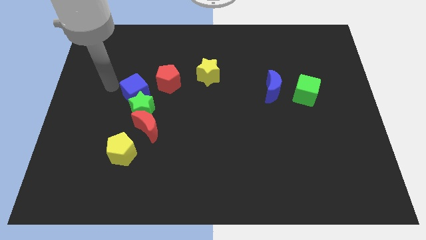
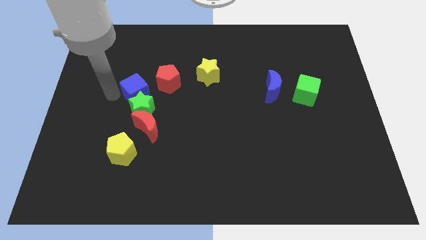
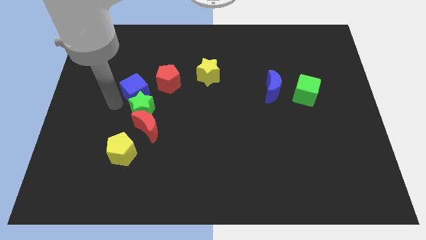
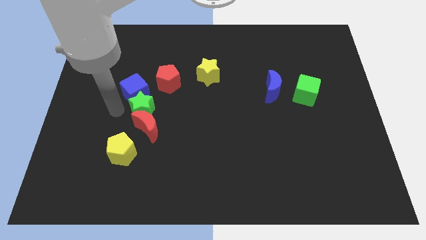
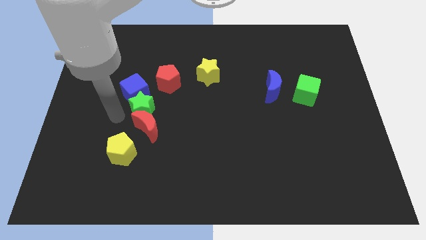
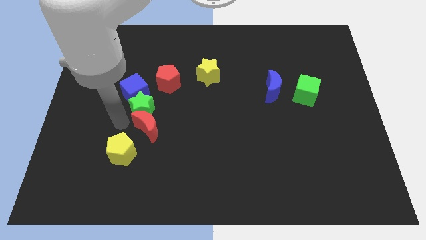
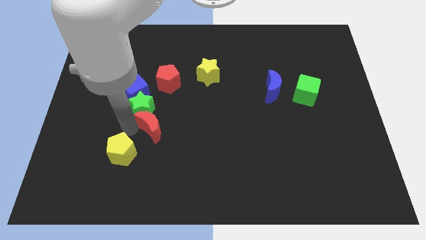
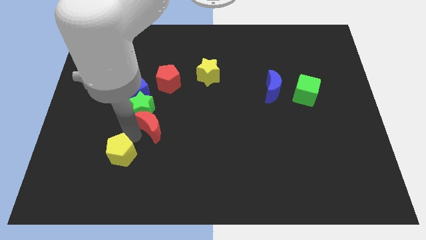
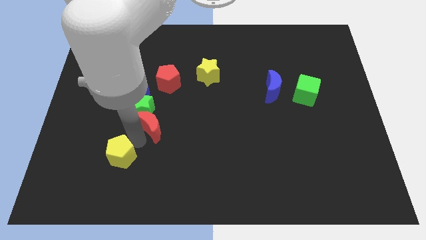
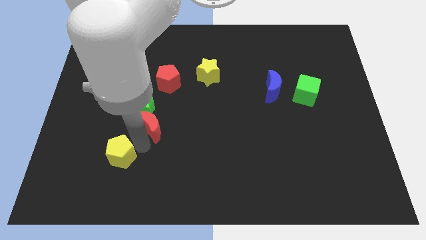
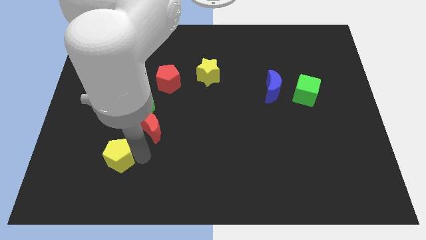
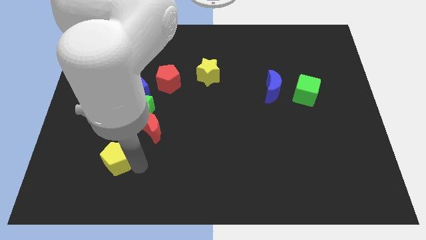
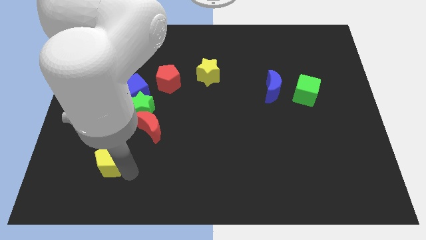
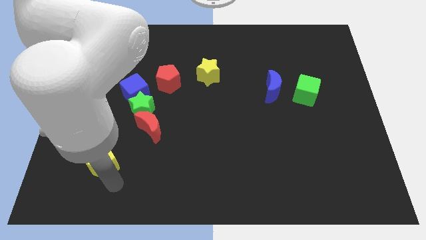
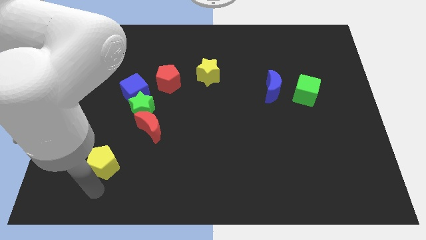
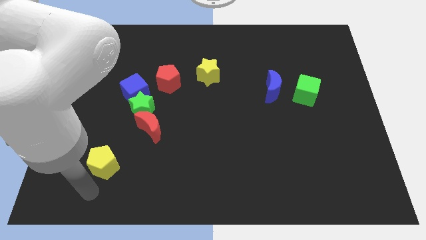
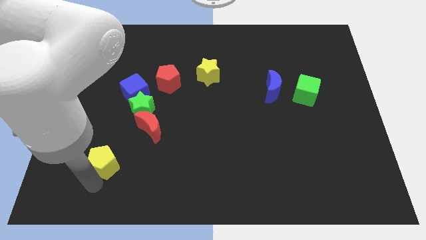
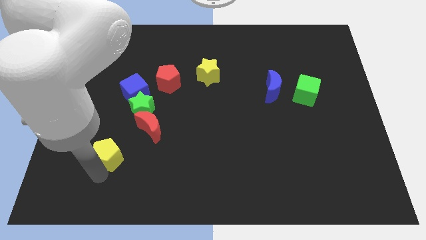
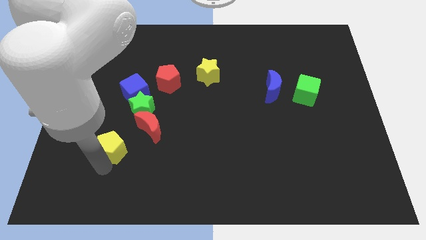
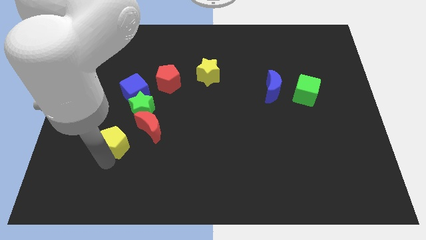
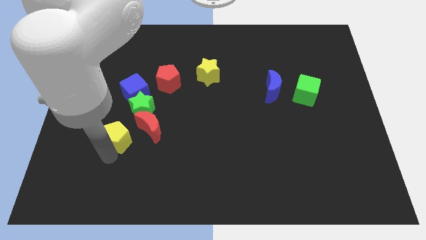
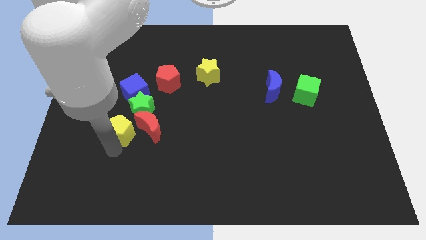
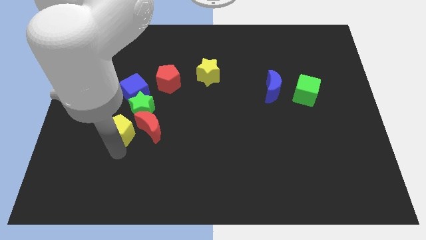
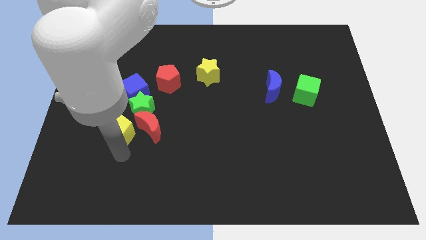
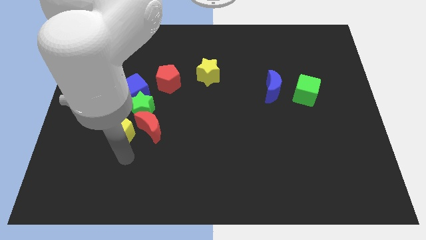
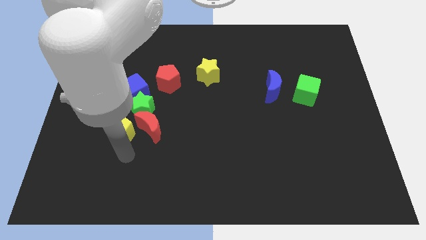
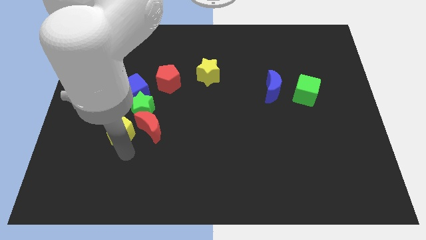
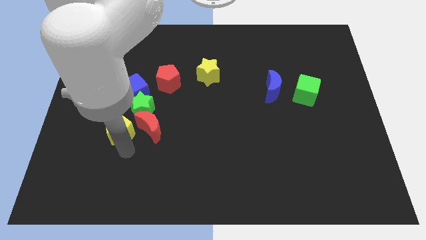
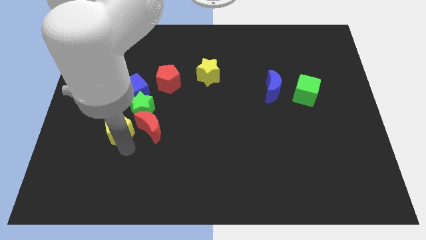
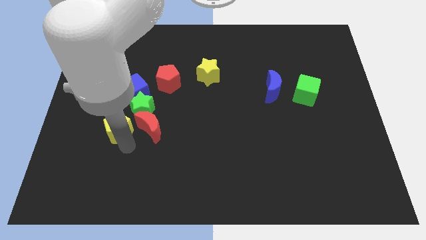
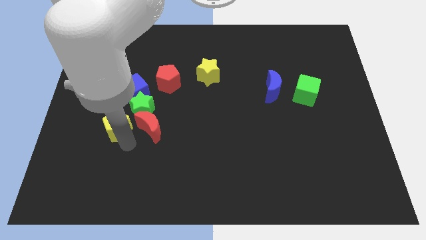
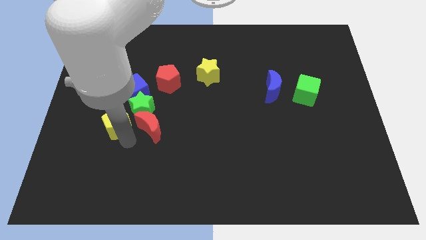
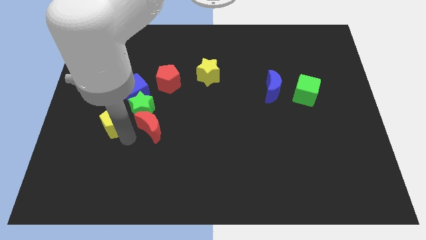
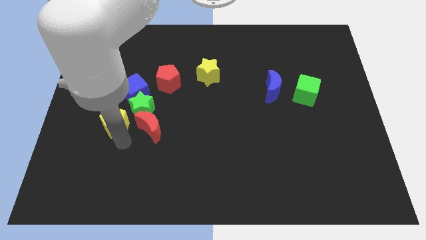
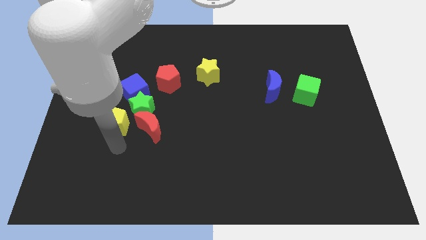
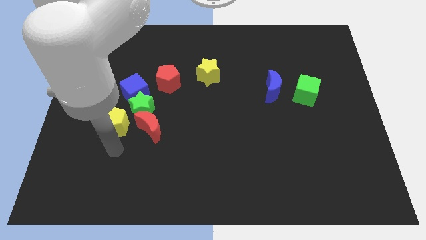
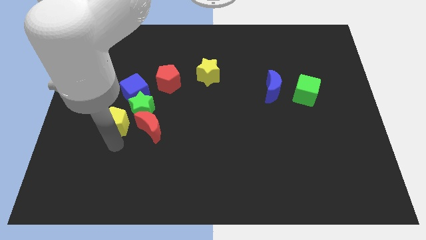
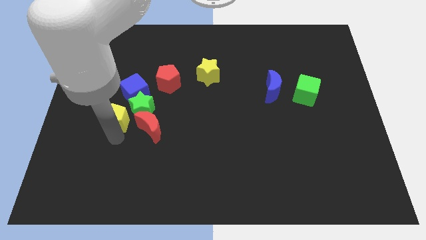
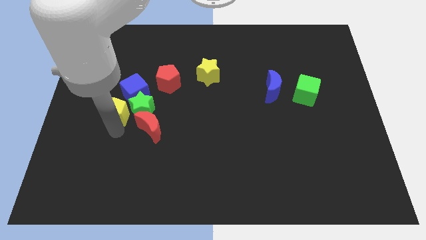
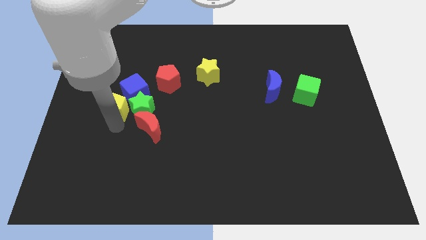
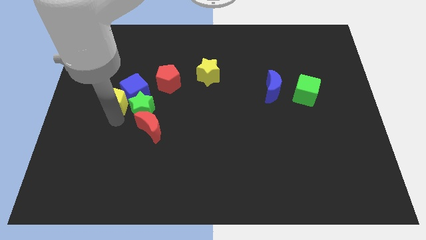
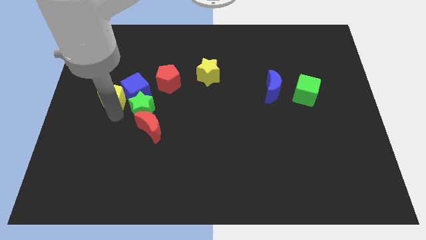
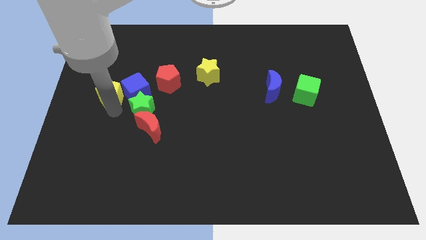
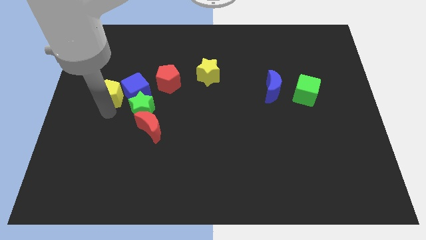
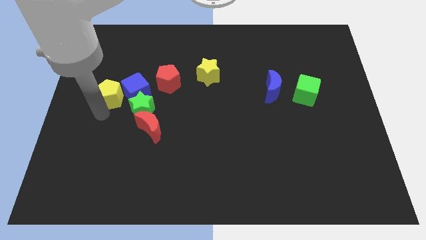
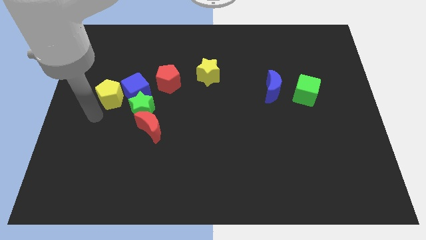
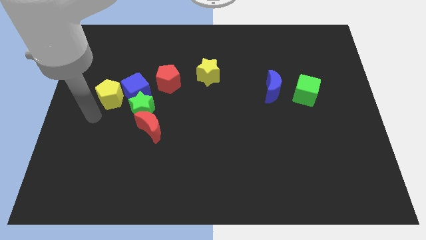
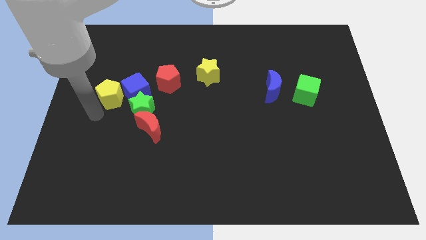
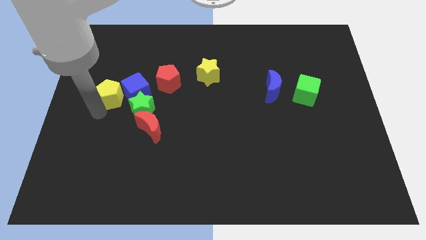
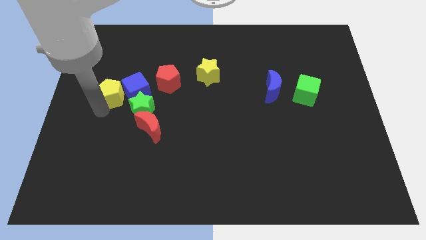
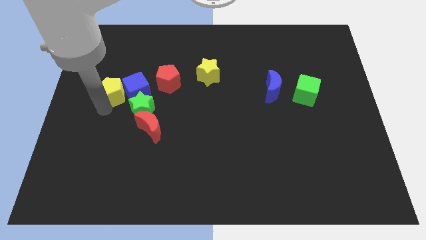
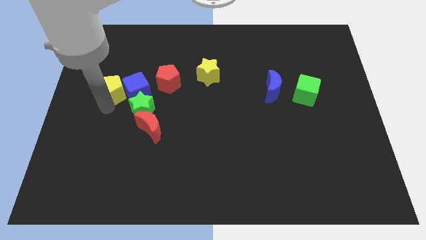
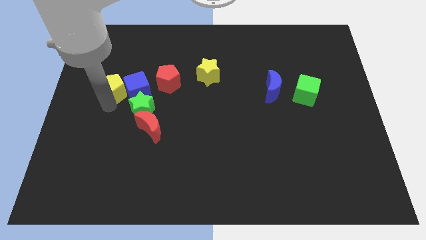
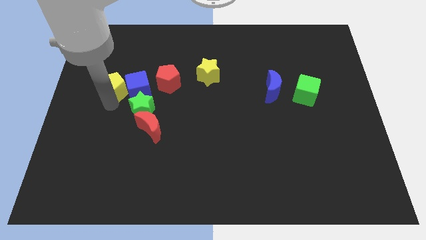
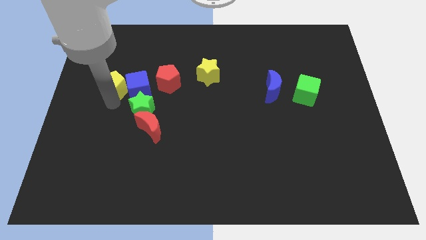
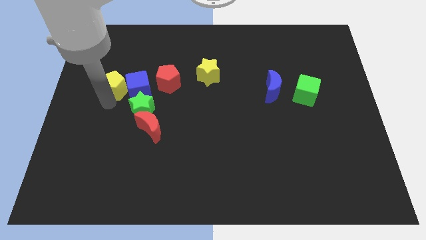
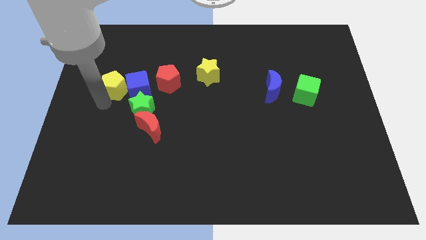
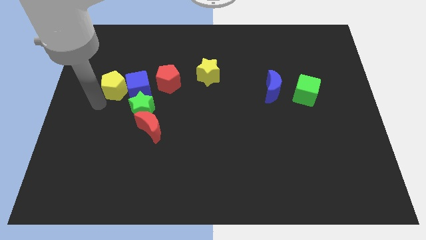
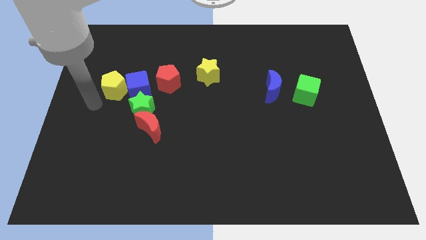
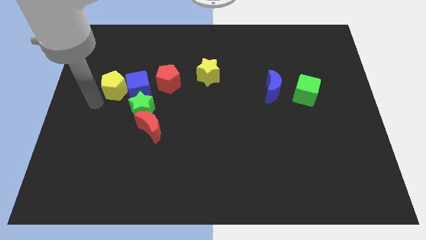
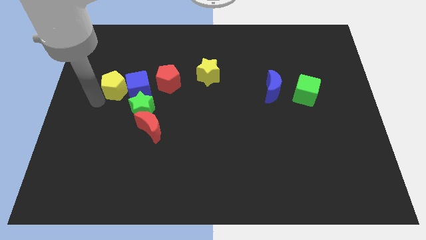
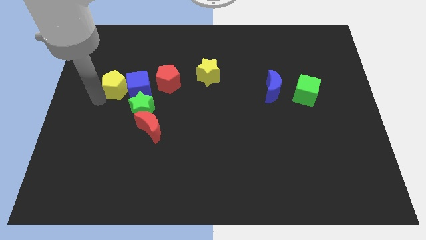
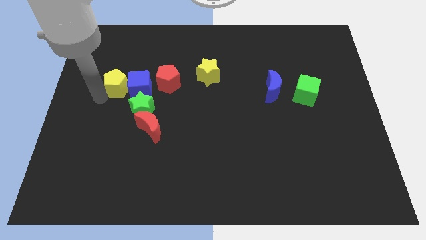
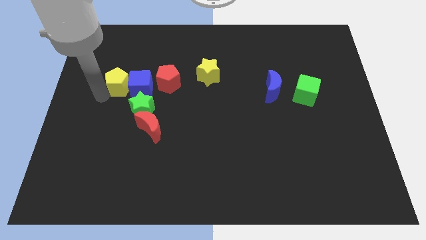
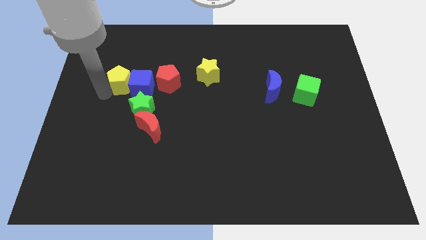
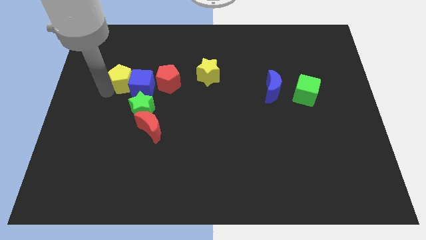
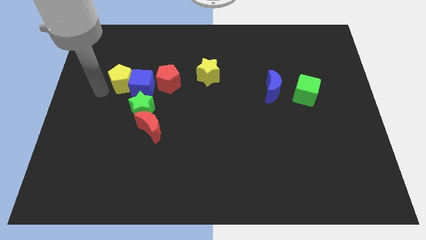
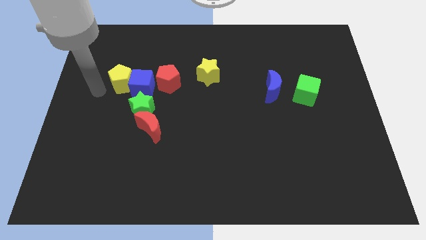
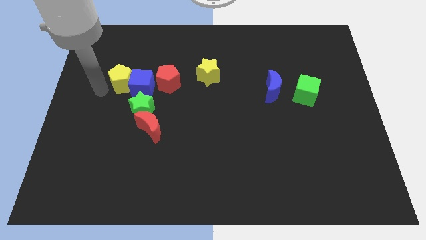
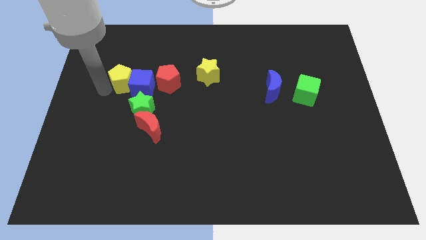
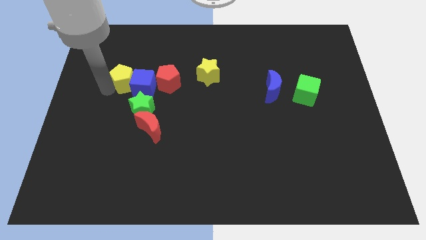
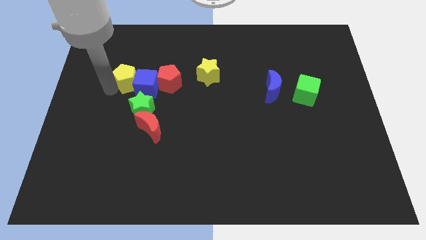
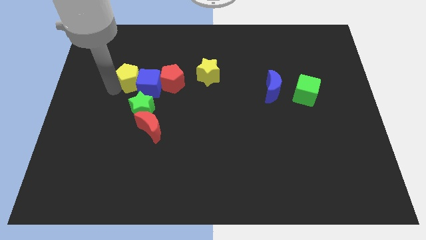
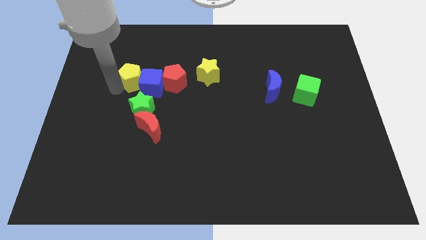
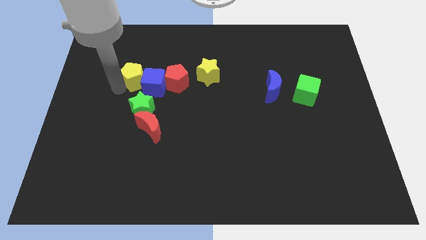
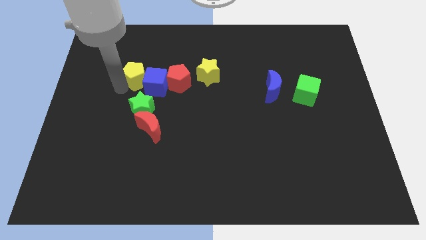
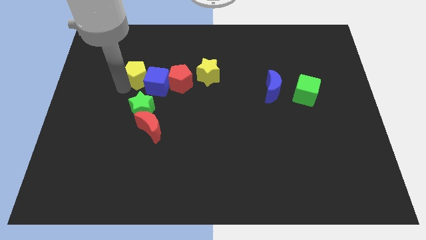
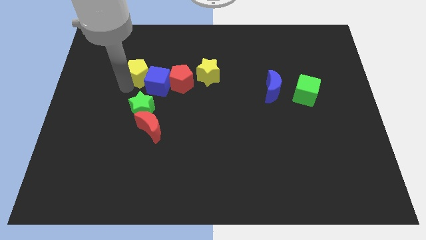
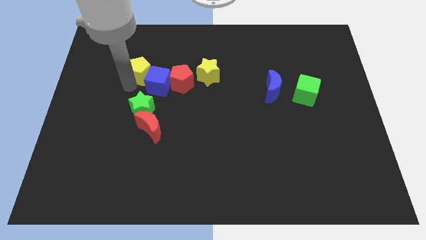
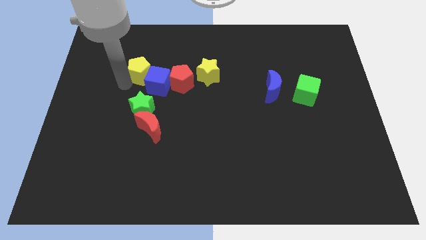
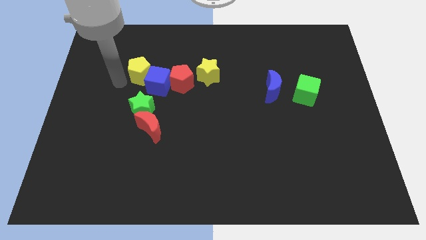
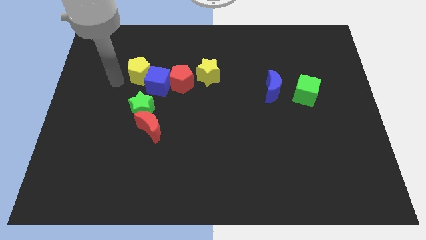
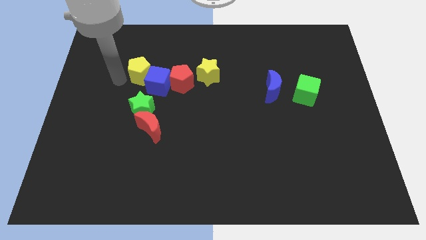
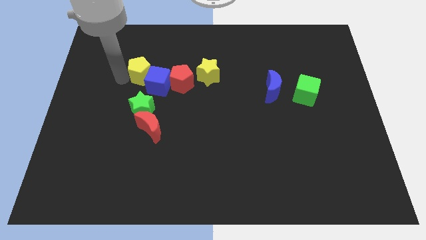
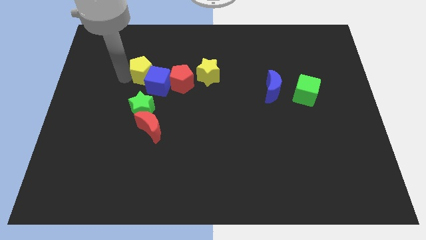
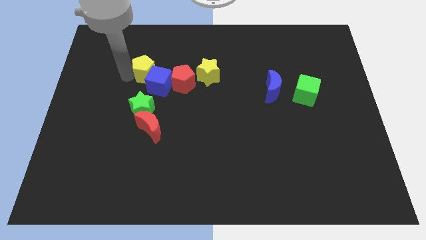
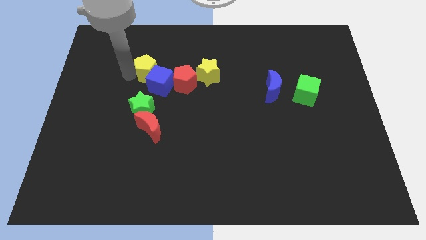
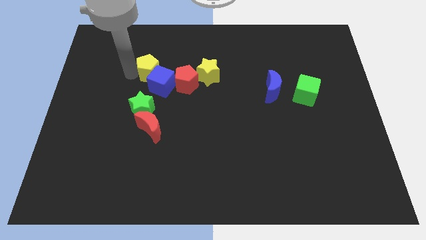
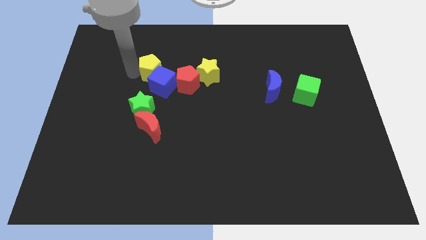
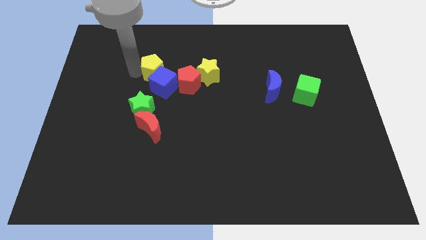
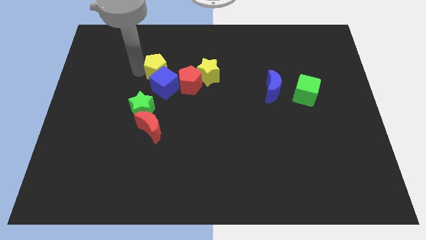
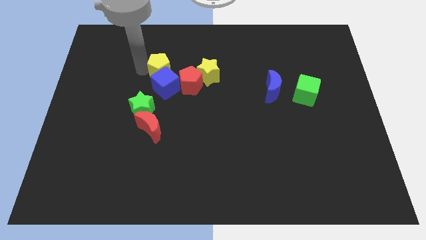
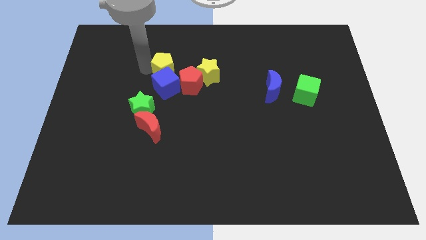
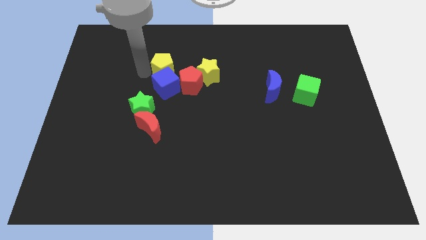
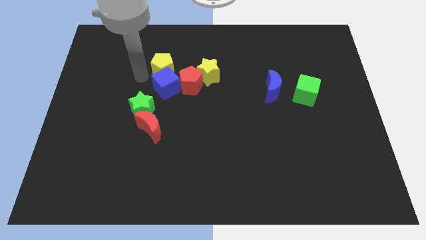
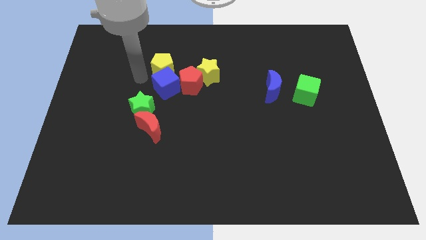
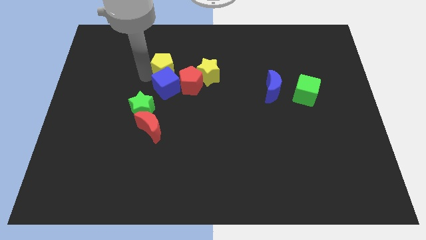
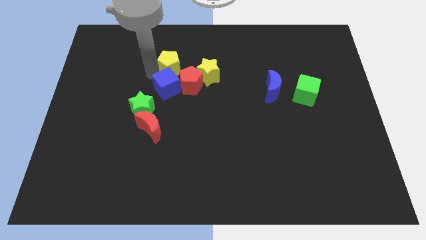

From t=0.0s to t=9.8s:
put the yellow pentagon to the top left of the yellow star
